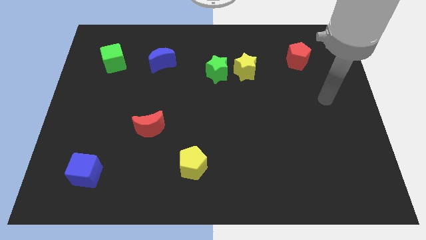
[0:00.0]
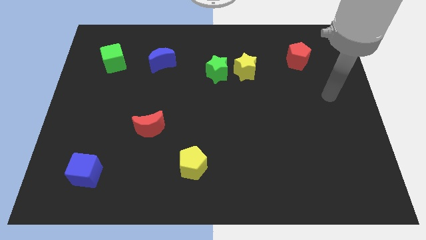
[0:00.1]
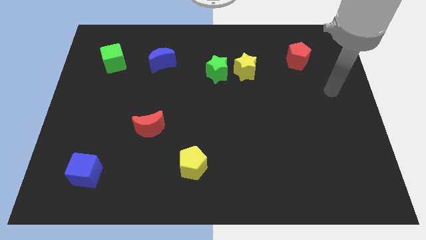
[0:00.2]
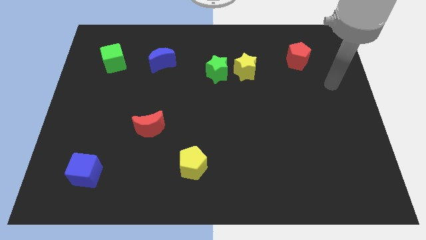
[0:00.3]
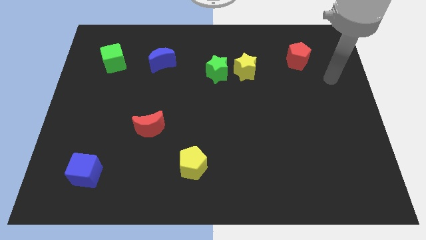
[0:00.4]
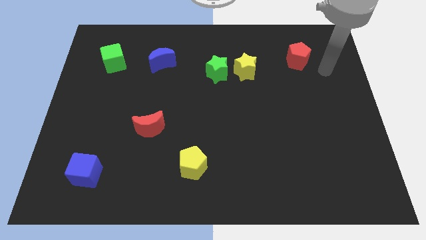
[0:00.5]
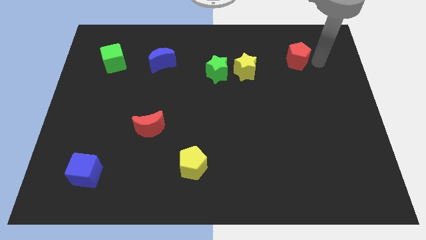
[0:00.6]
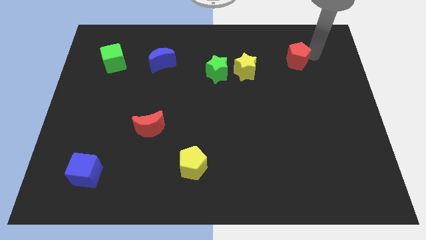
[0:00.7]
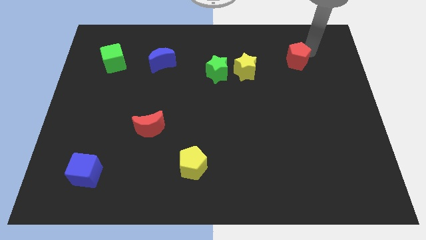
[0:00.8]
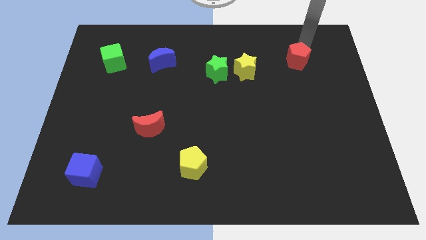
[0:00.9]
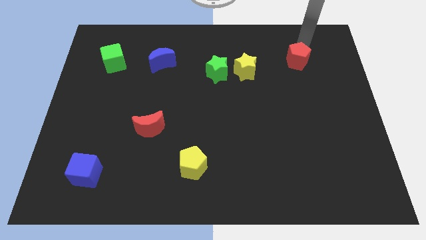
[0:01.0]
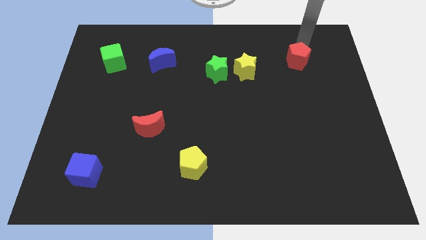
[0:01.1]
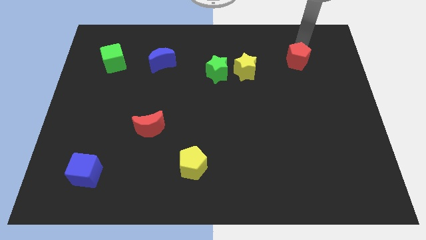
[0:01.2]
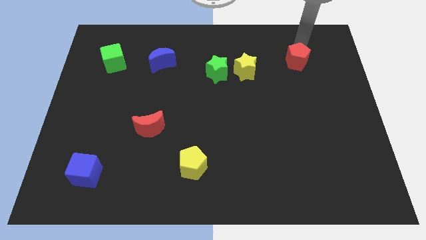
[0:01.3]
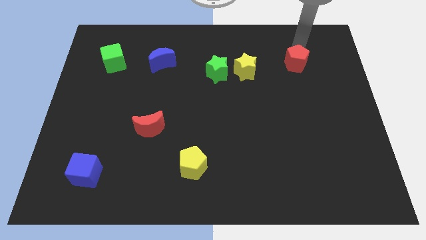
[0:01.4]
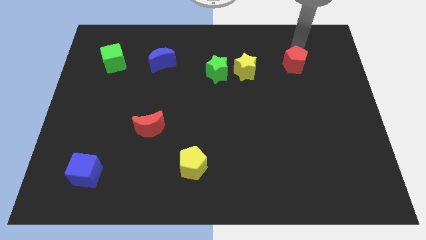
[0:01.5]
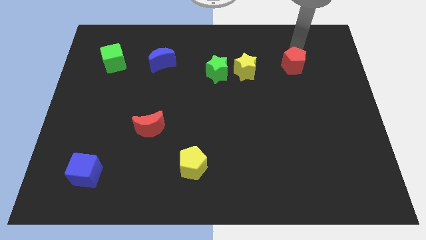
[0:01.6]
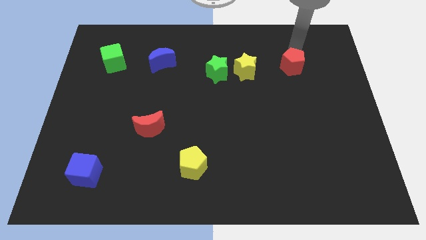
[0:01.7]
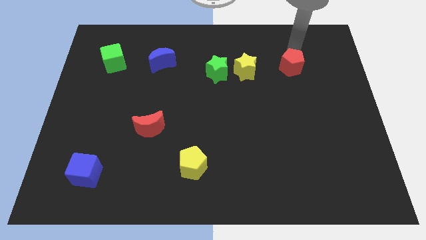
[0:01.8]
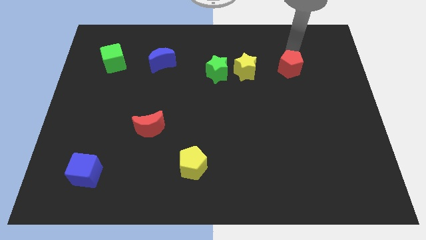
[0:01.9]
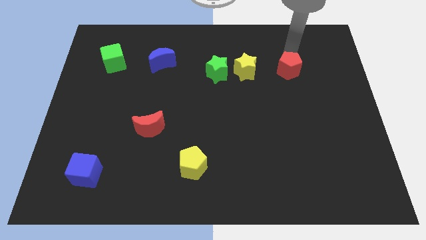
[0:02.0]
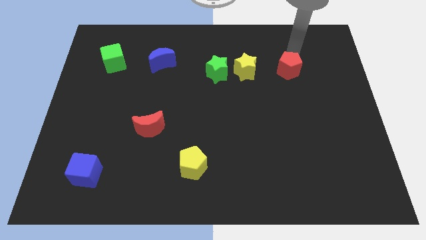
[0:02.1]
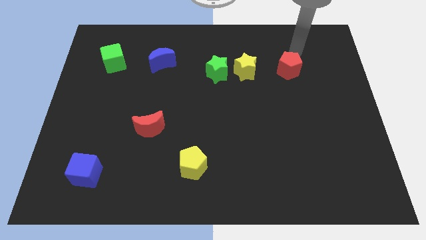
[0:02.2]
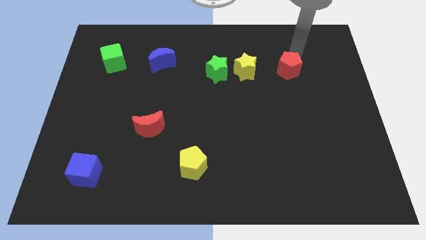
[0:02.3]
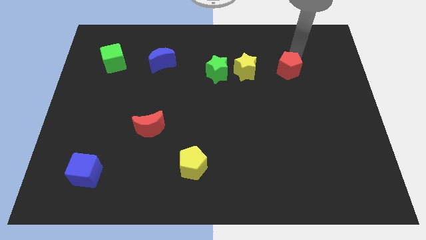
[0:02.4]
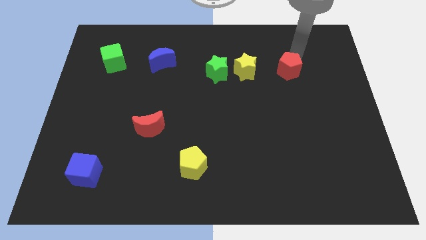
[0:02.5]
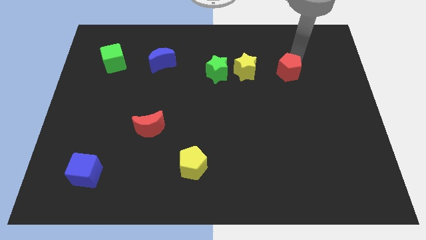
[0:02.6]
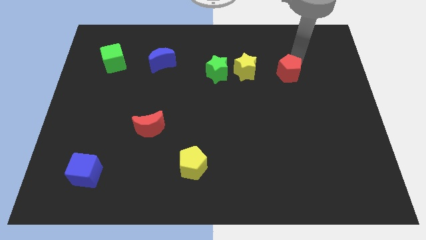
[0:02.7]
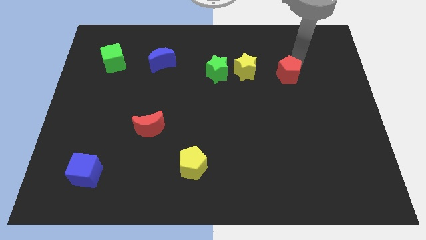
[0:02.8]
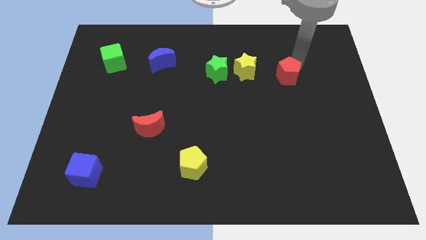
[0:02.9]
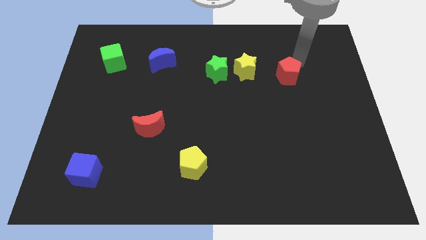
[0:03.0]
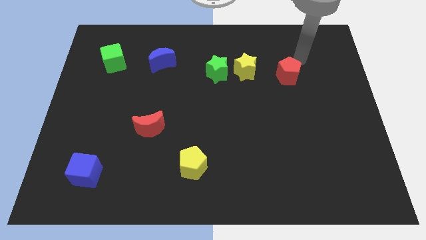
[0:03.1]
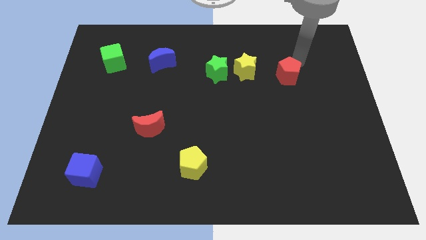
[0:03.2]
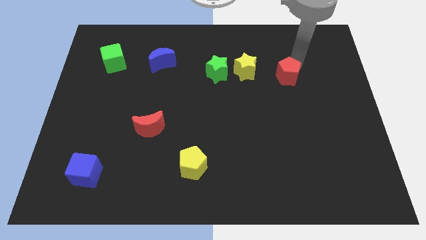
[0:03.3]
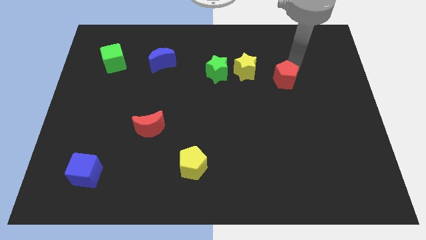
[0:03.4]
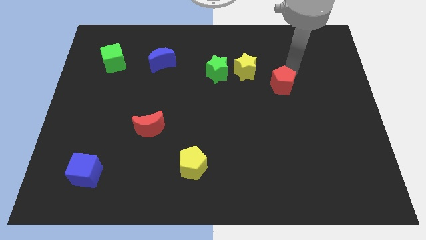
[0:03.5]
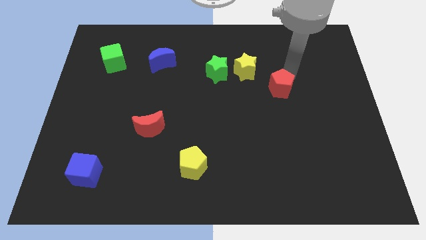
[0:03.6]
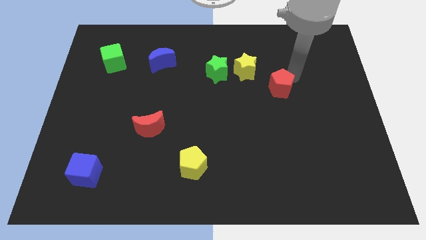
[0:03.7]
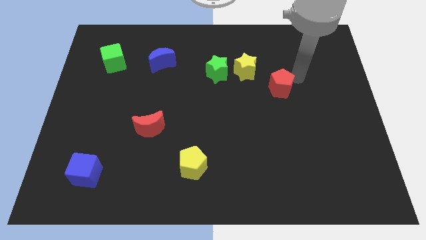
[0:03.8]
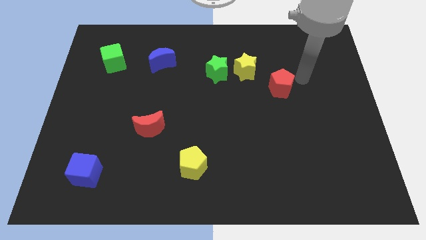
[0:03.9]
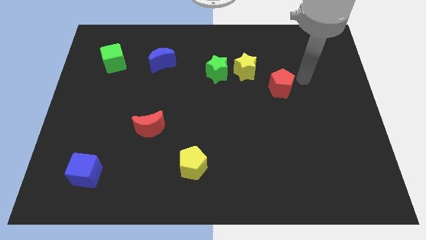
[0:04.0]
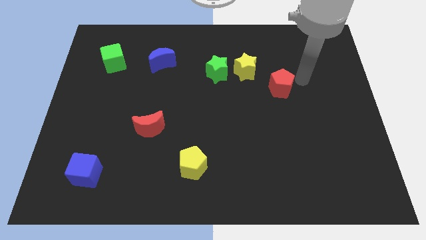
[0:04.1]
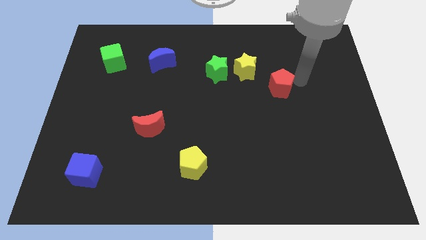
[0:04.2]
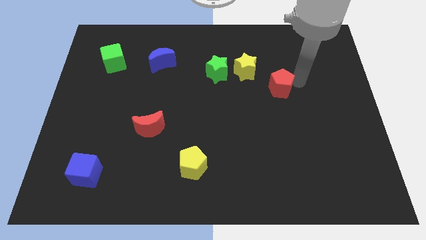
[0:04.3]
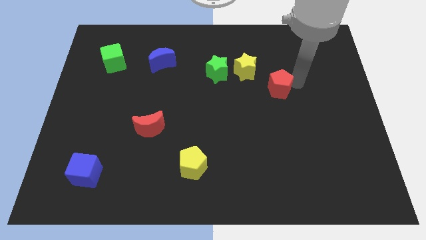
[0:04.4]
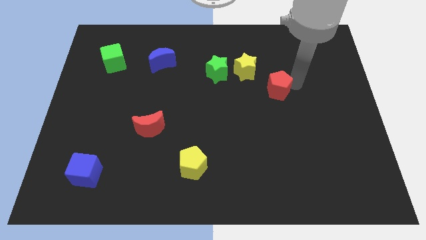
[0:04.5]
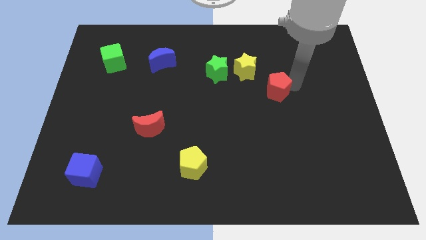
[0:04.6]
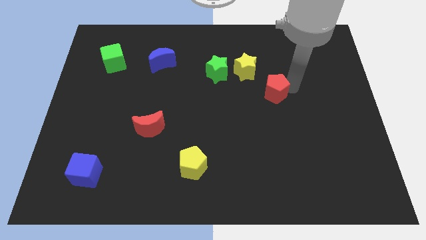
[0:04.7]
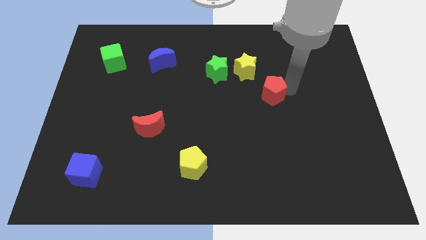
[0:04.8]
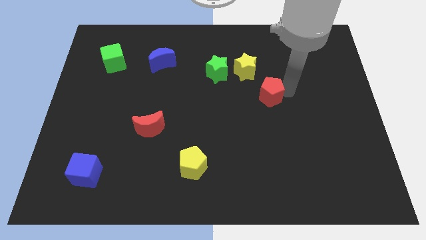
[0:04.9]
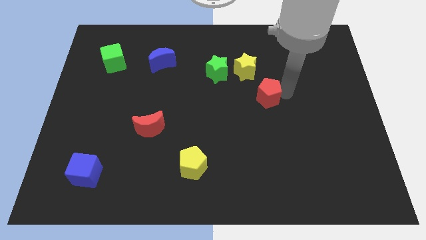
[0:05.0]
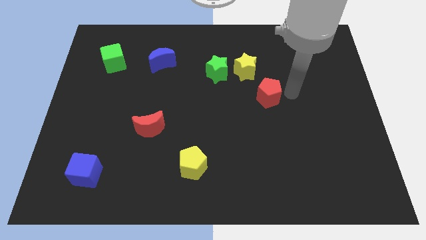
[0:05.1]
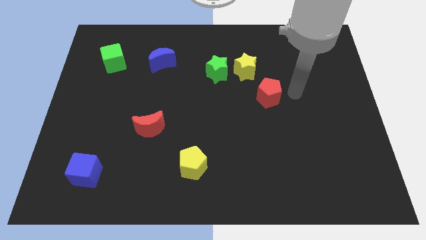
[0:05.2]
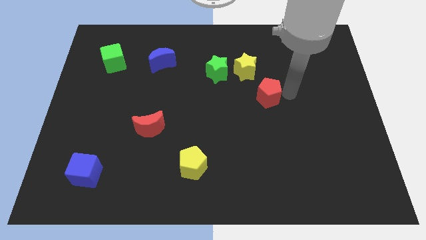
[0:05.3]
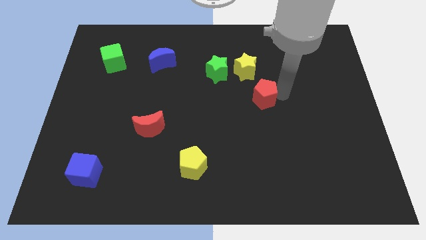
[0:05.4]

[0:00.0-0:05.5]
move the red pentagon to the middle

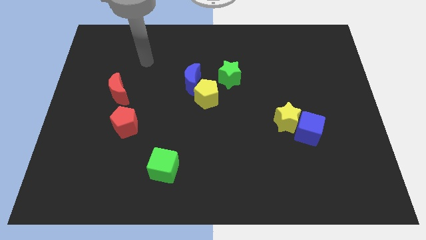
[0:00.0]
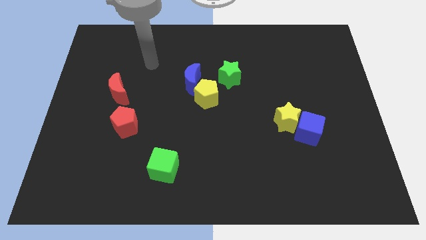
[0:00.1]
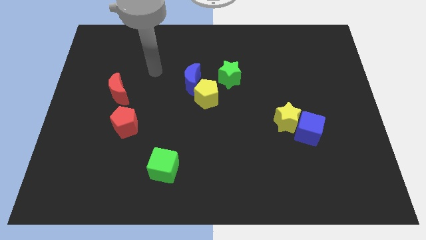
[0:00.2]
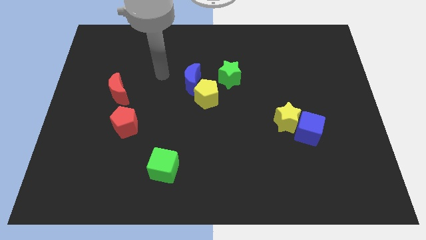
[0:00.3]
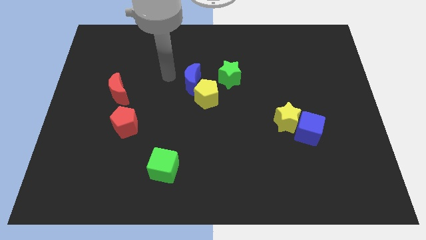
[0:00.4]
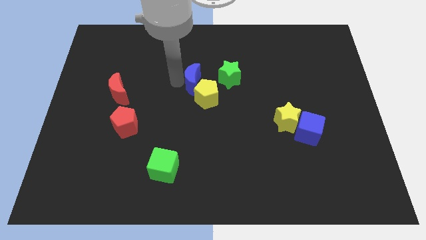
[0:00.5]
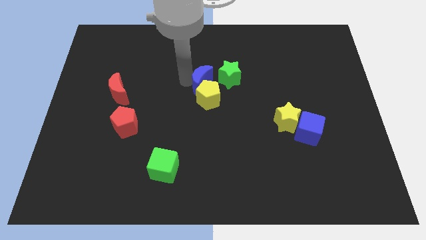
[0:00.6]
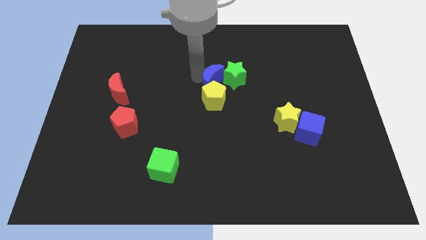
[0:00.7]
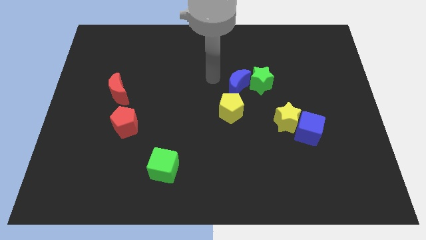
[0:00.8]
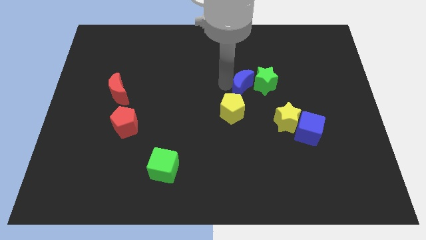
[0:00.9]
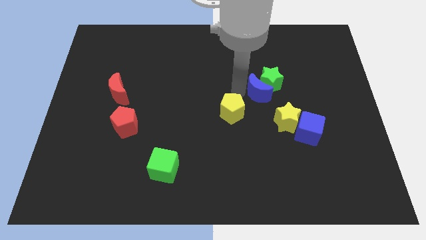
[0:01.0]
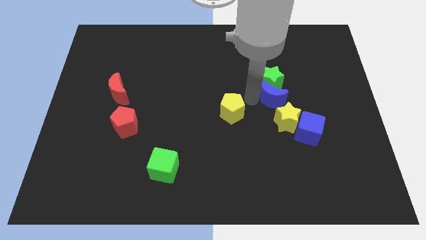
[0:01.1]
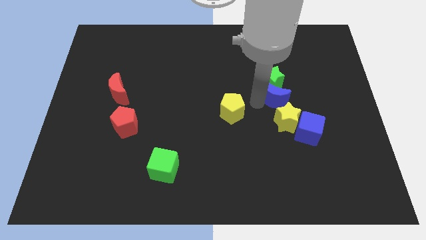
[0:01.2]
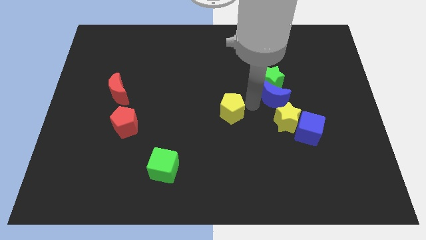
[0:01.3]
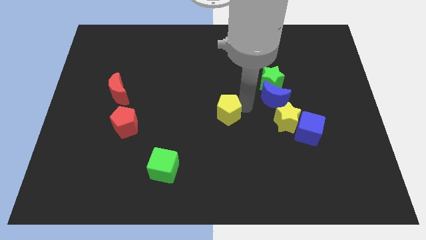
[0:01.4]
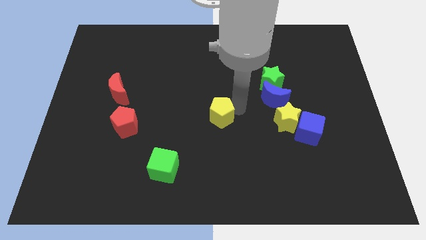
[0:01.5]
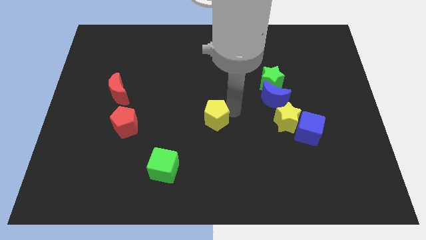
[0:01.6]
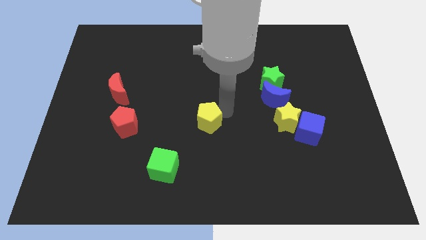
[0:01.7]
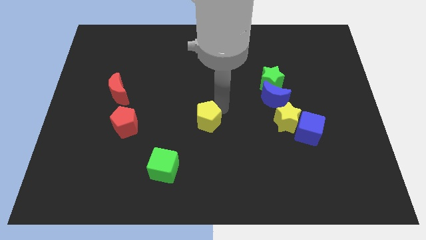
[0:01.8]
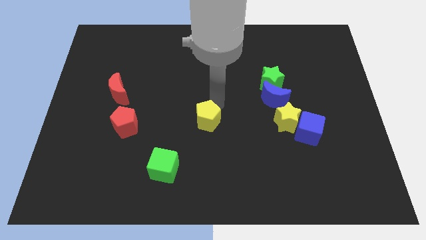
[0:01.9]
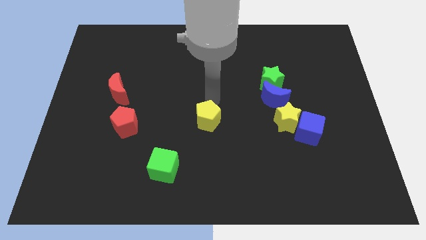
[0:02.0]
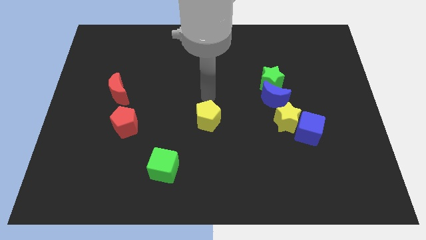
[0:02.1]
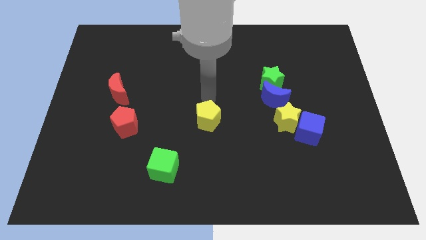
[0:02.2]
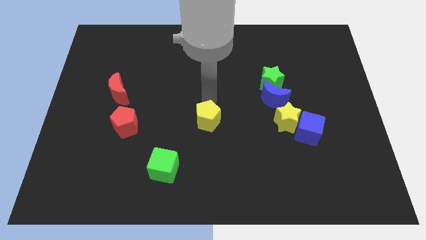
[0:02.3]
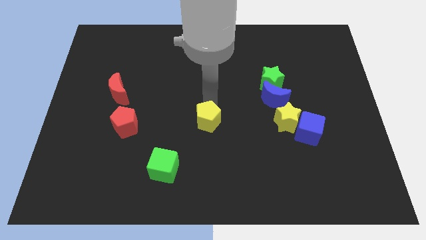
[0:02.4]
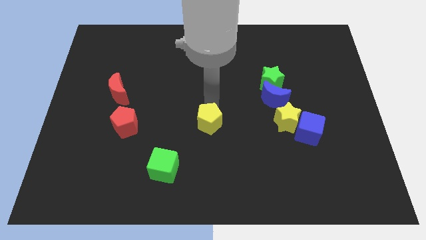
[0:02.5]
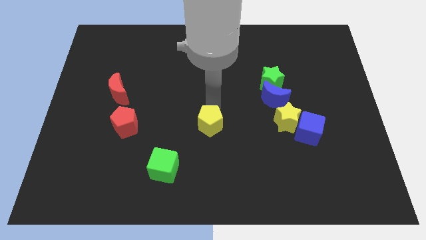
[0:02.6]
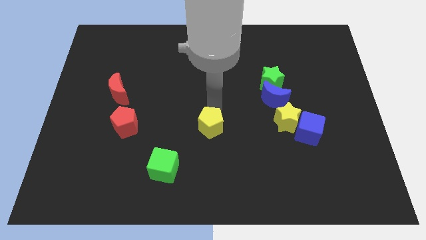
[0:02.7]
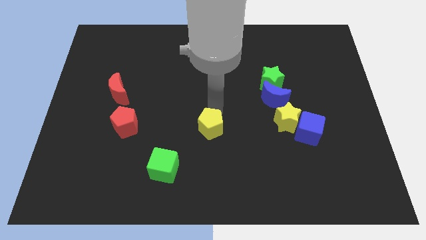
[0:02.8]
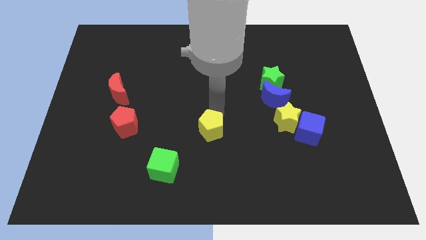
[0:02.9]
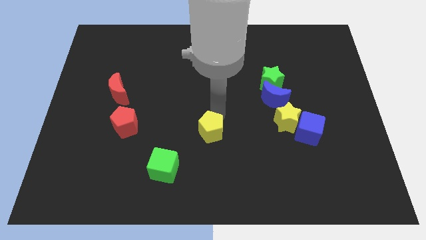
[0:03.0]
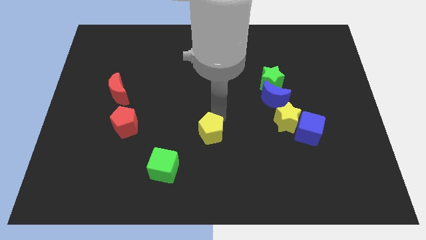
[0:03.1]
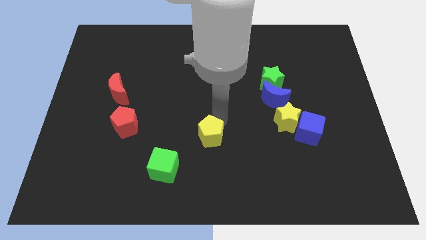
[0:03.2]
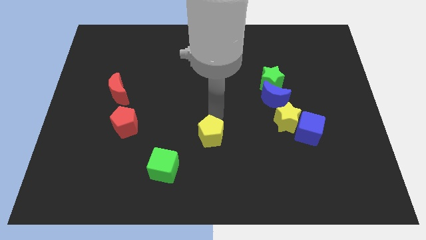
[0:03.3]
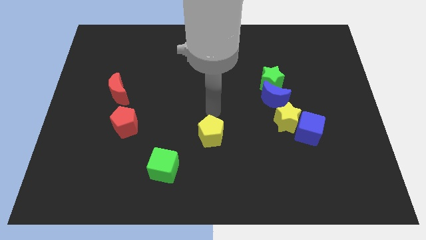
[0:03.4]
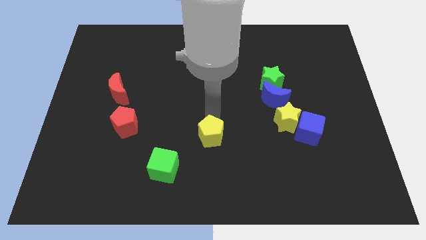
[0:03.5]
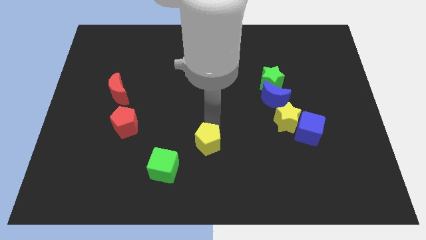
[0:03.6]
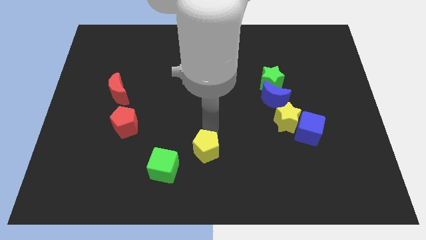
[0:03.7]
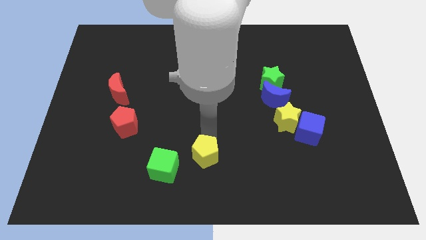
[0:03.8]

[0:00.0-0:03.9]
slide the yellow pentagon to the bottom
